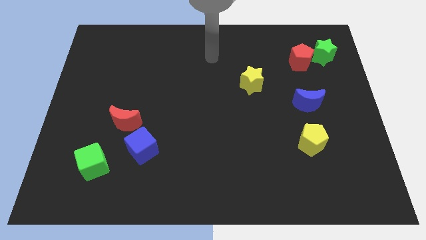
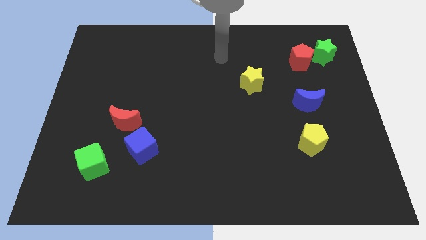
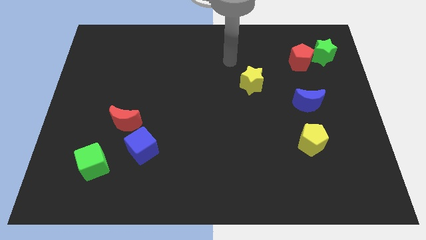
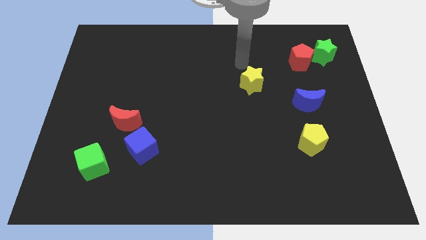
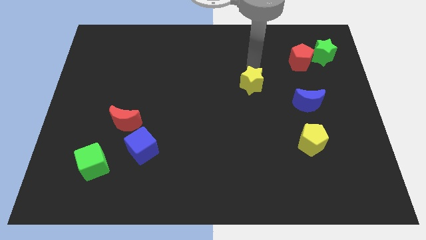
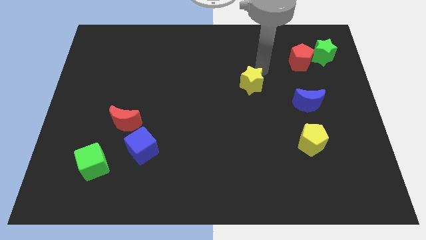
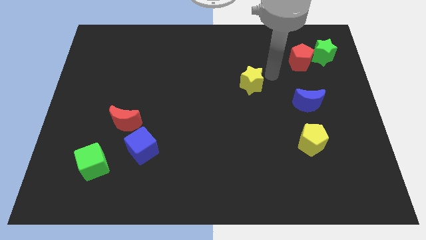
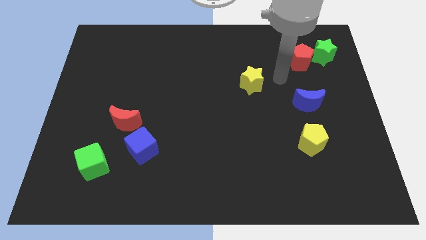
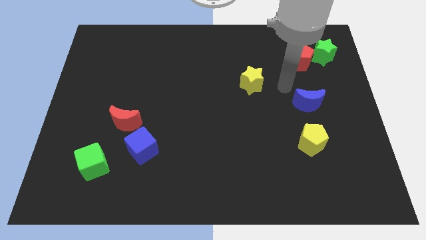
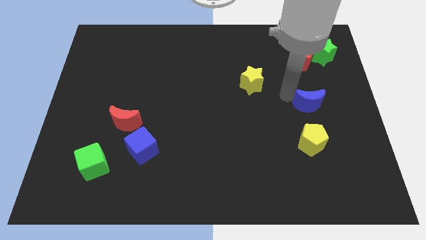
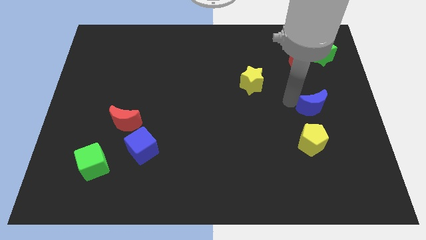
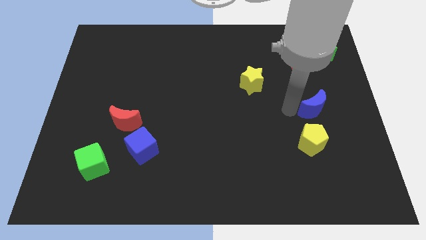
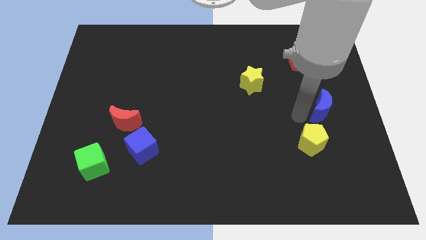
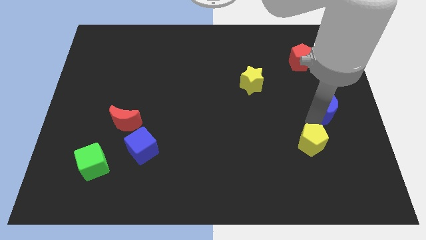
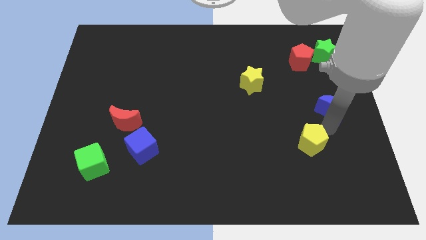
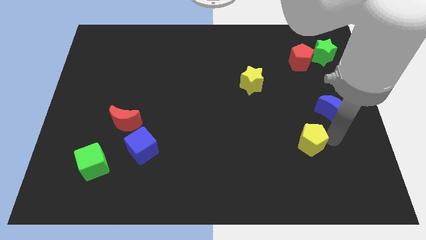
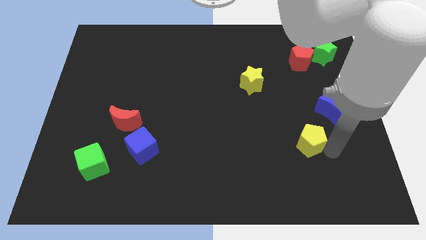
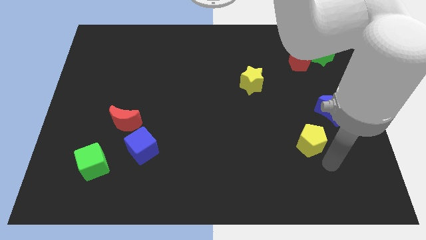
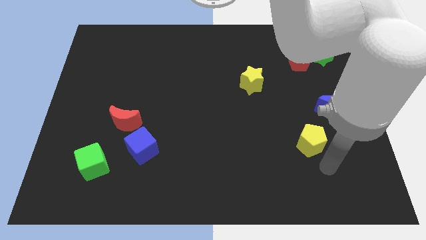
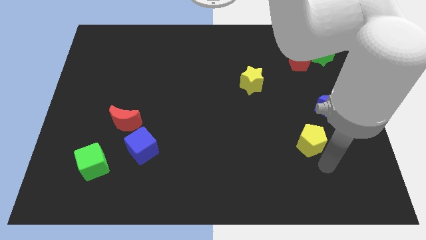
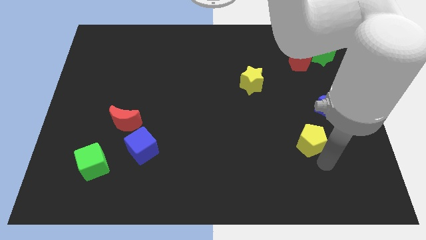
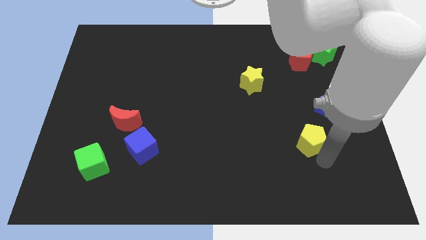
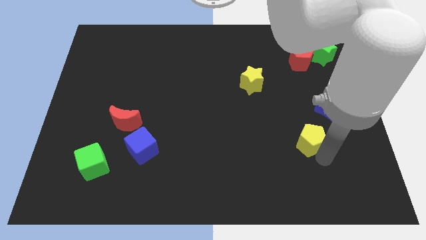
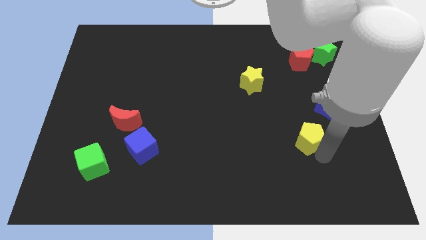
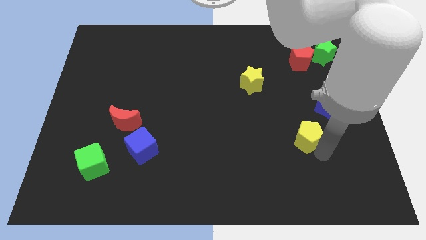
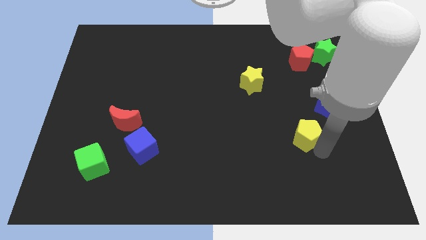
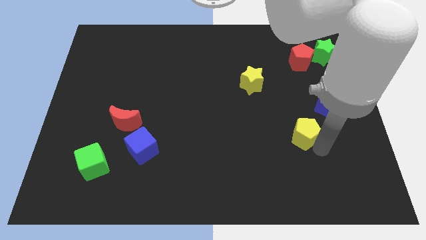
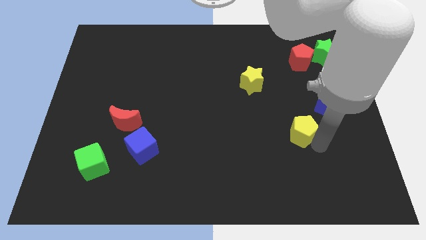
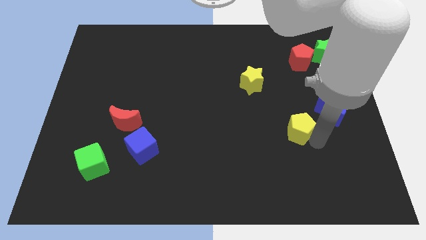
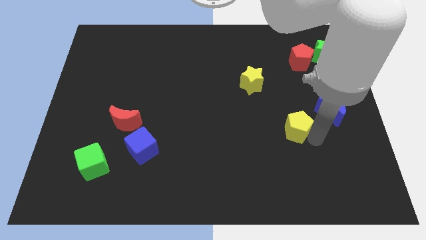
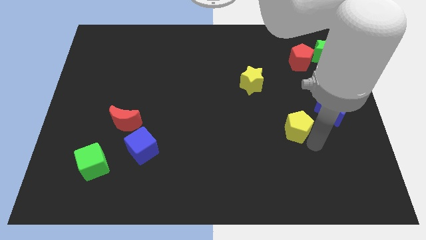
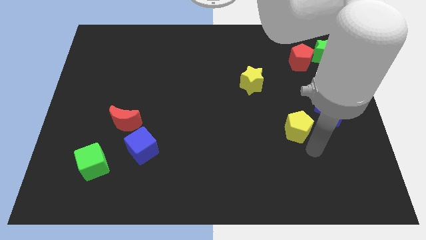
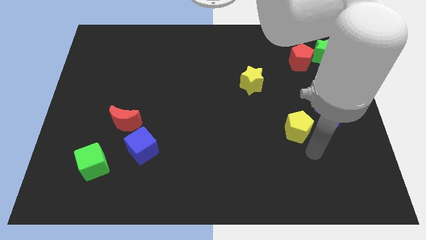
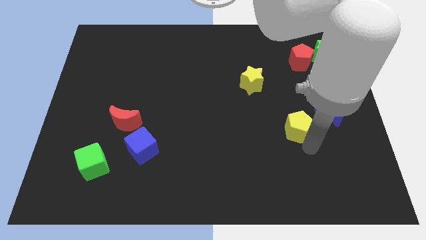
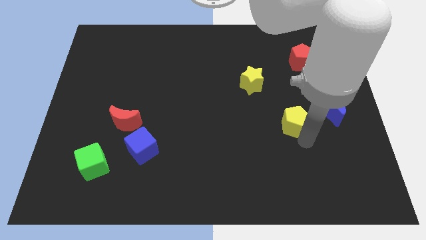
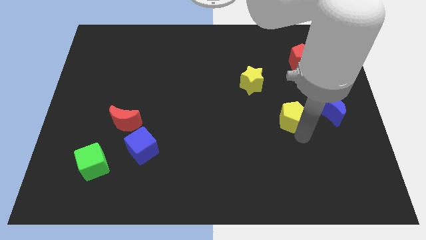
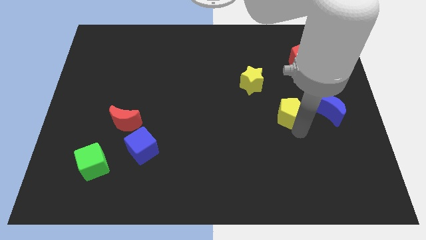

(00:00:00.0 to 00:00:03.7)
slightly slide the yellow pentagon upwards

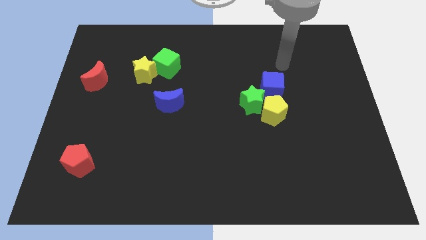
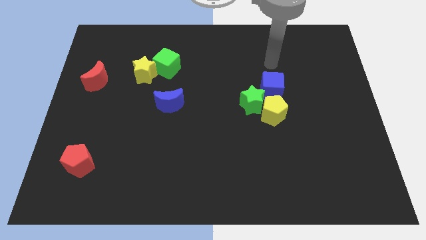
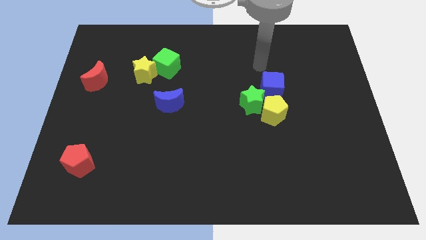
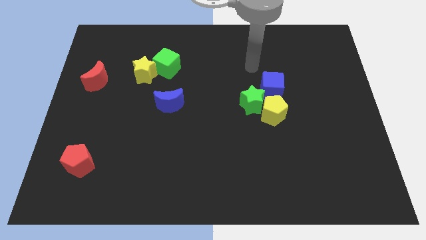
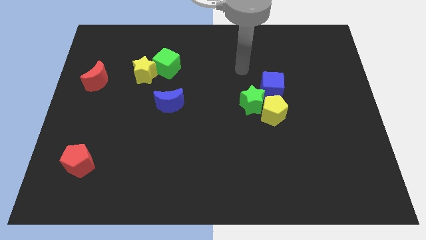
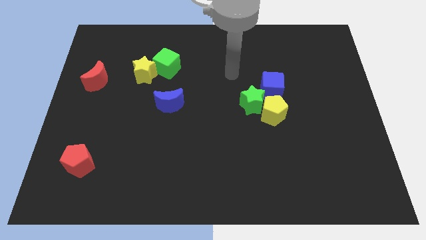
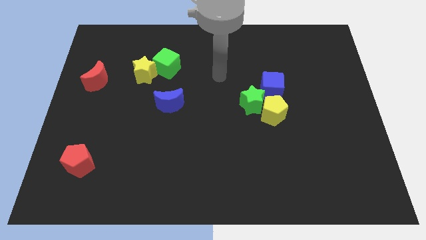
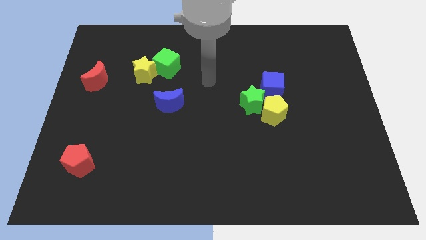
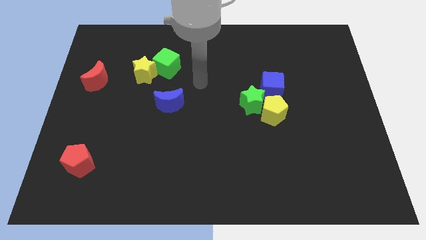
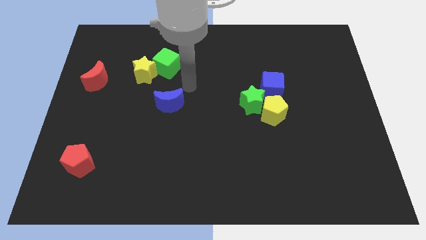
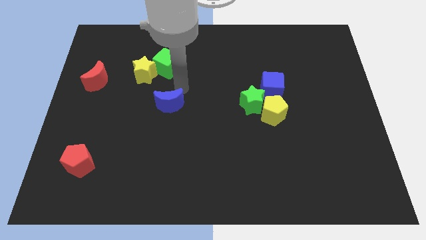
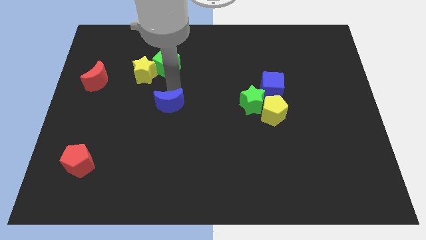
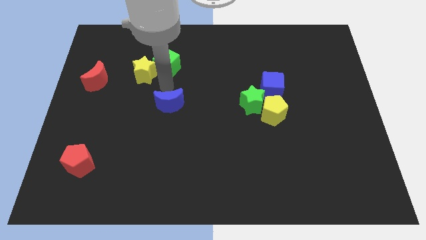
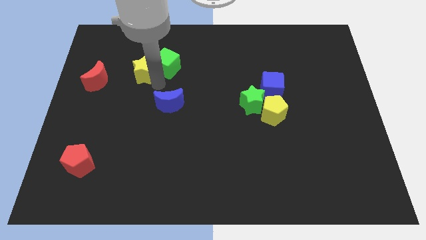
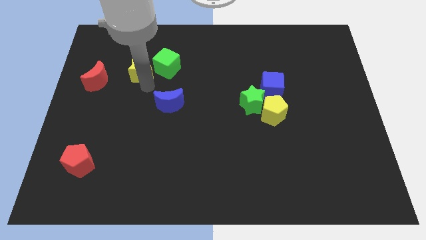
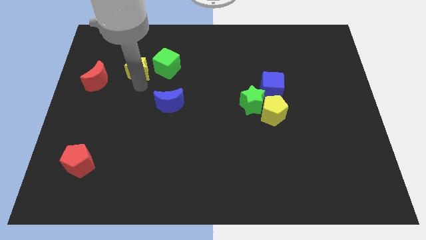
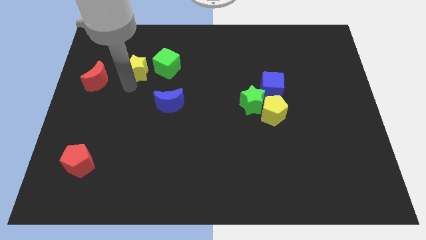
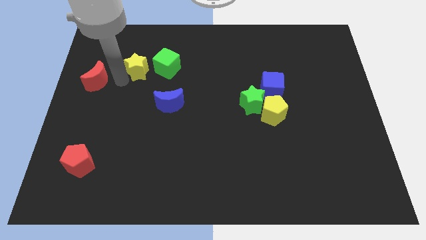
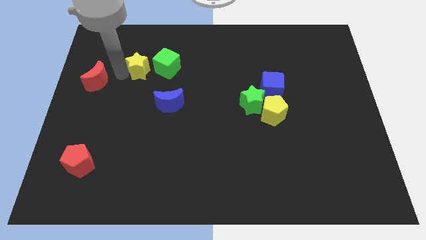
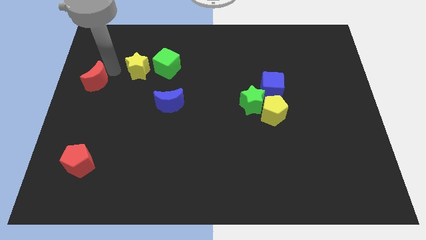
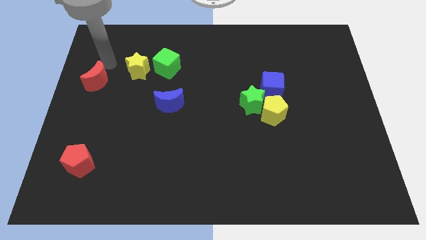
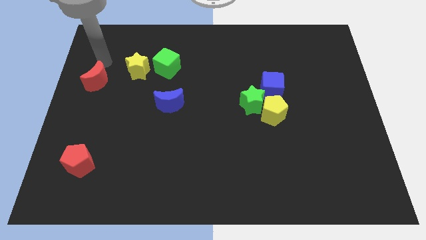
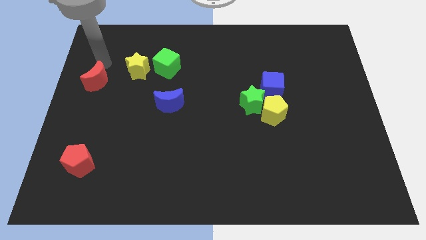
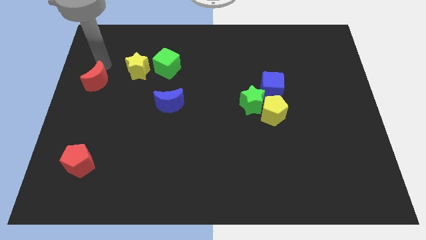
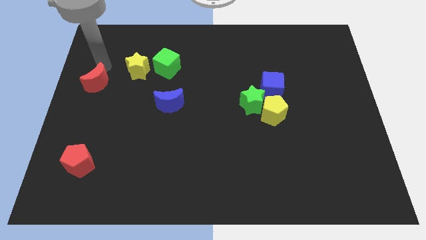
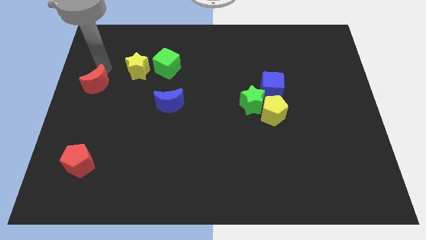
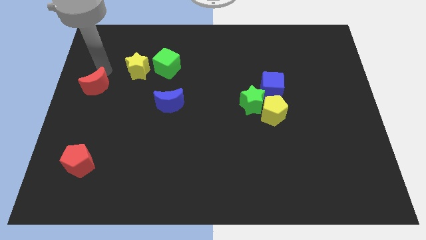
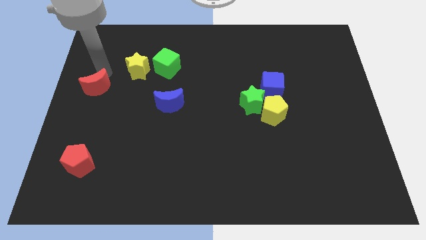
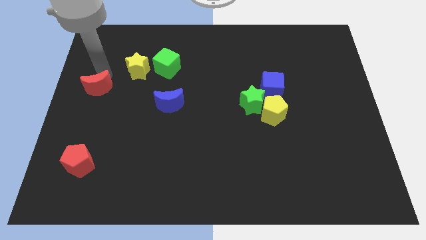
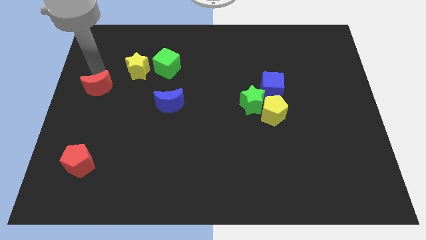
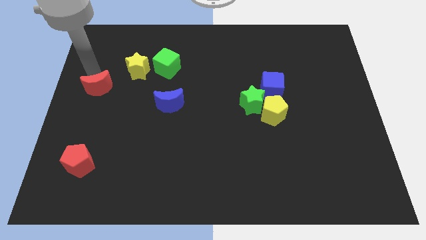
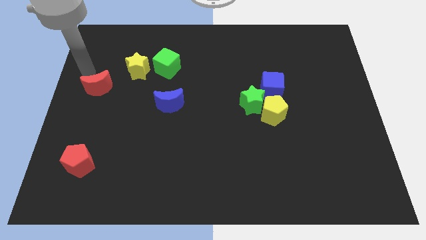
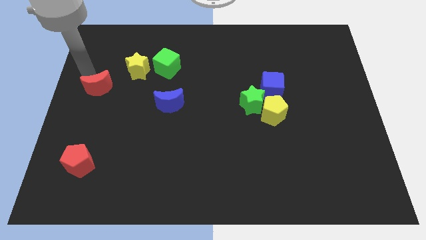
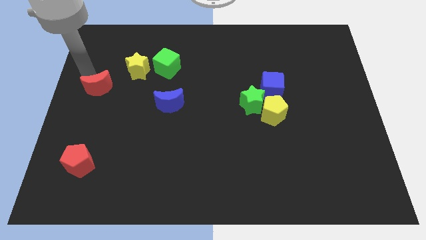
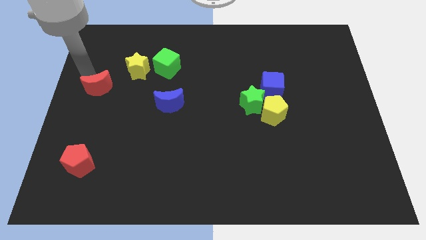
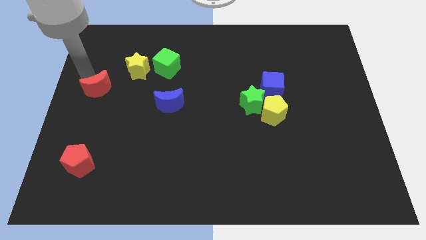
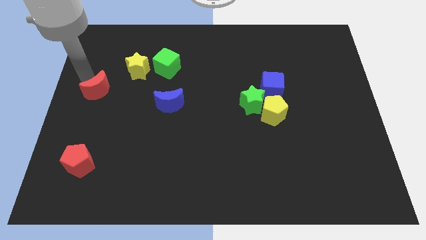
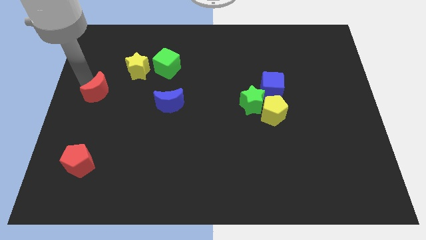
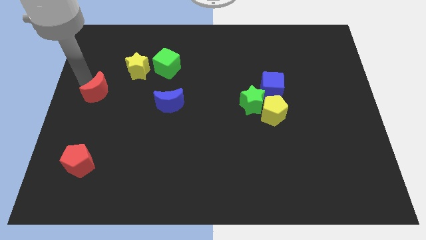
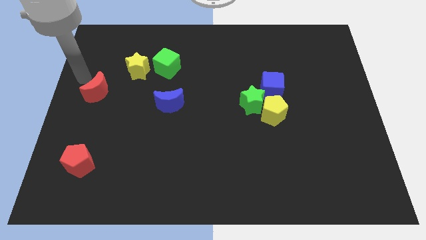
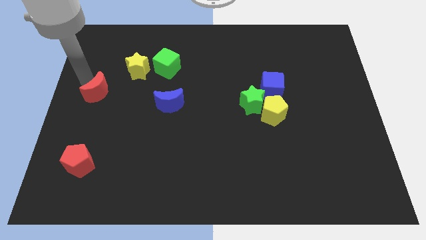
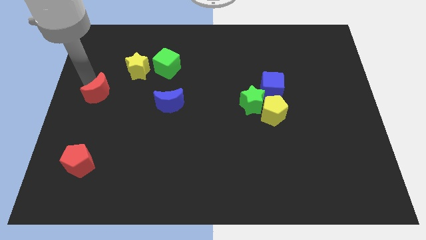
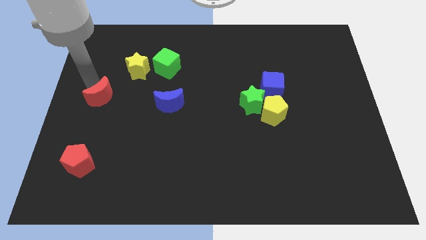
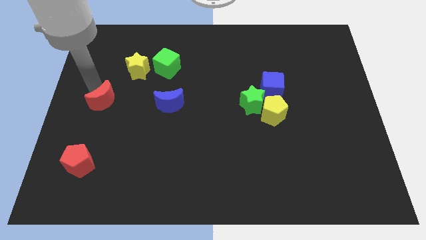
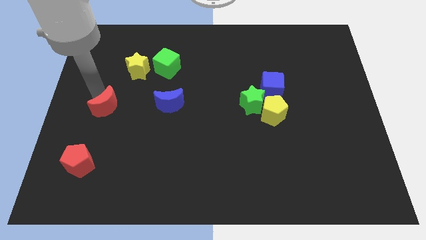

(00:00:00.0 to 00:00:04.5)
slightly push the red moon down and then to the right
